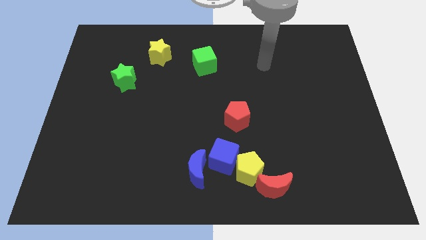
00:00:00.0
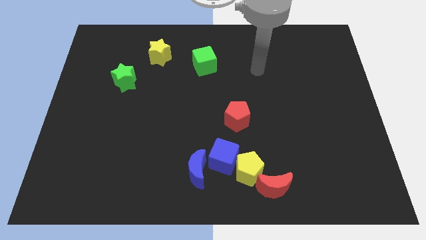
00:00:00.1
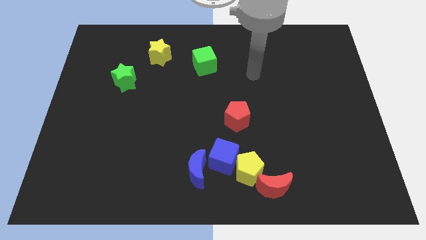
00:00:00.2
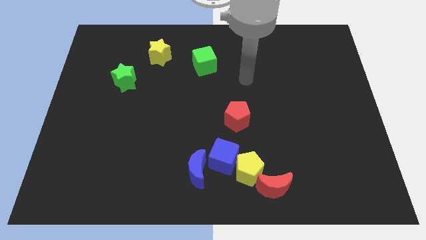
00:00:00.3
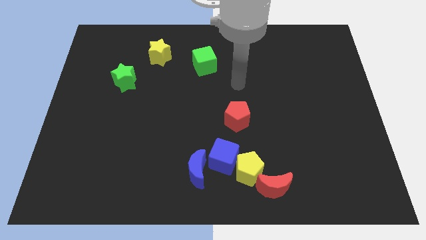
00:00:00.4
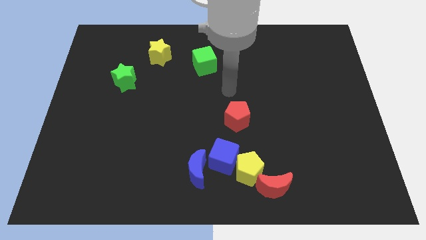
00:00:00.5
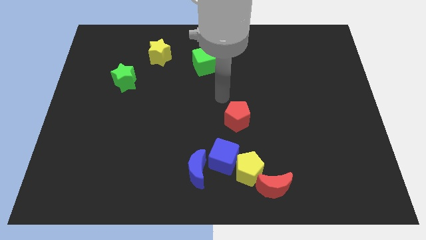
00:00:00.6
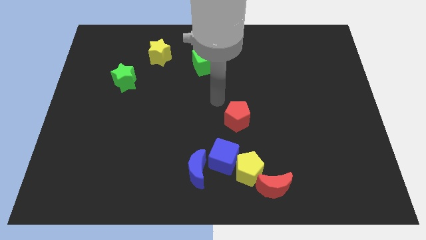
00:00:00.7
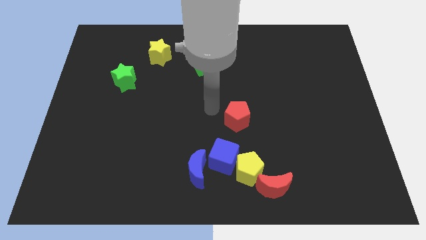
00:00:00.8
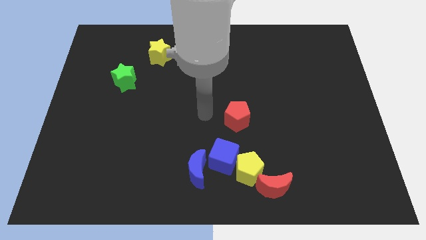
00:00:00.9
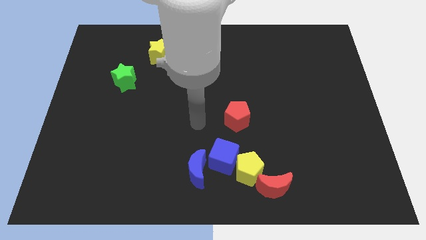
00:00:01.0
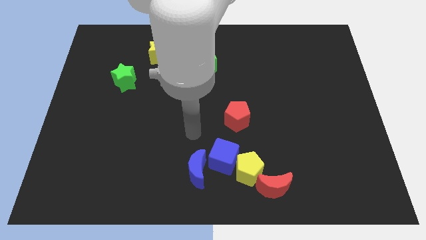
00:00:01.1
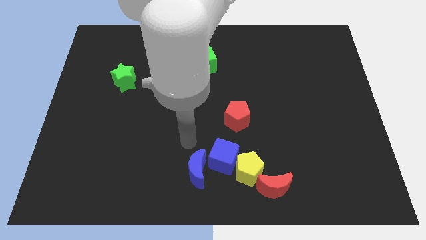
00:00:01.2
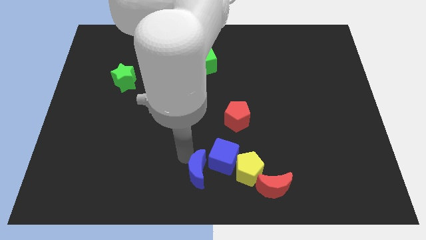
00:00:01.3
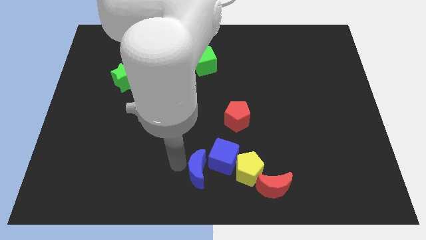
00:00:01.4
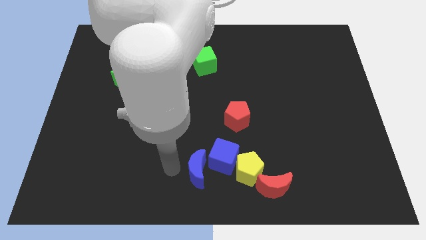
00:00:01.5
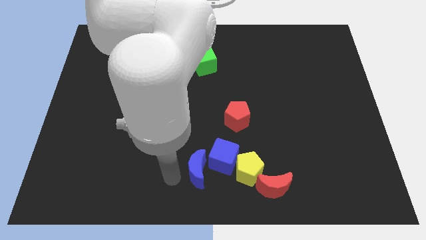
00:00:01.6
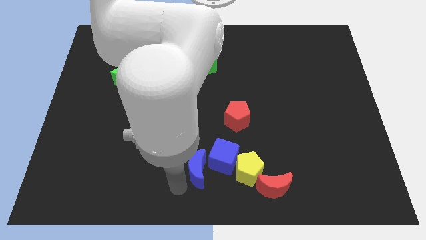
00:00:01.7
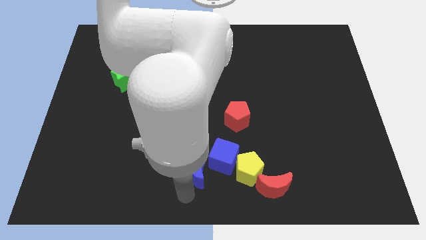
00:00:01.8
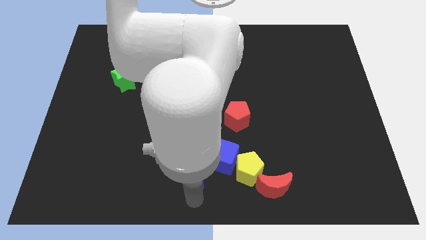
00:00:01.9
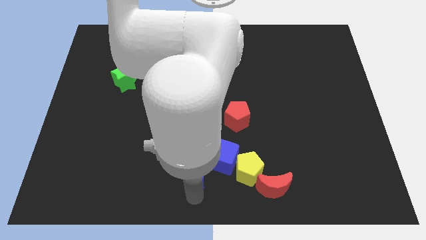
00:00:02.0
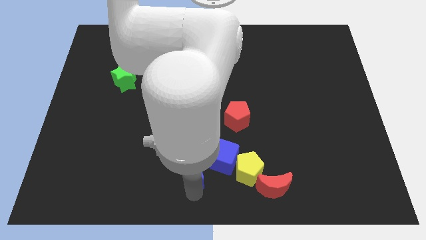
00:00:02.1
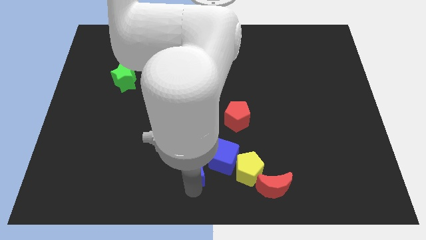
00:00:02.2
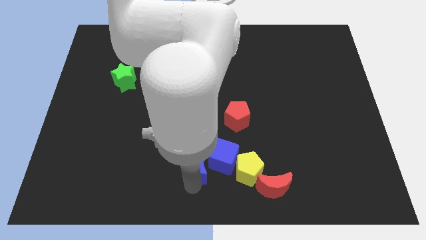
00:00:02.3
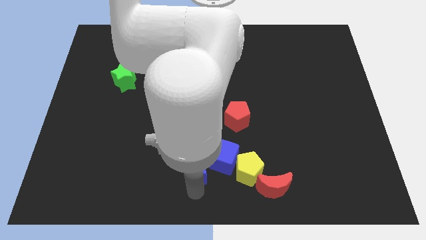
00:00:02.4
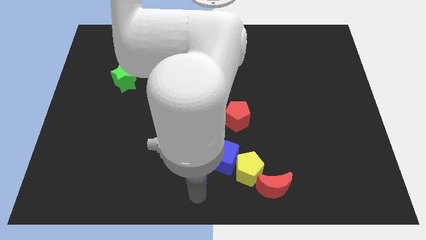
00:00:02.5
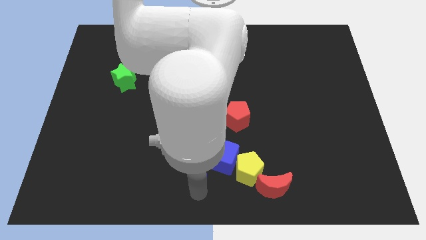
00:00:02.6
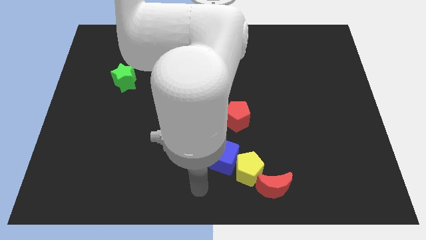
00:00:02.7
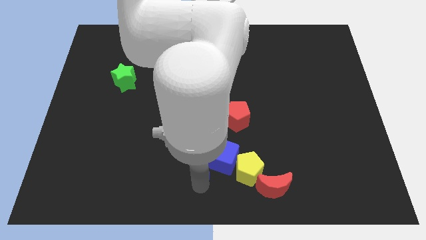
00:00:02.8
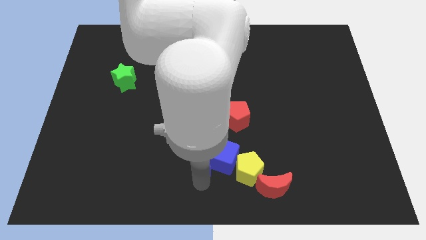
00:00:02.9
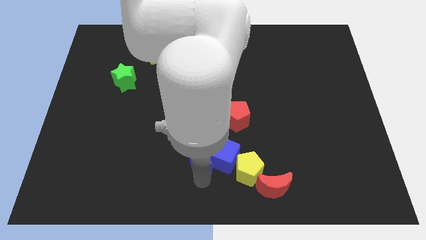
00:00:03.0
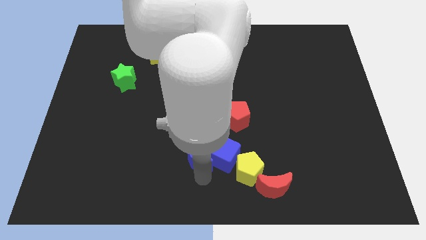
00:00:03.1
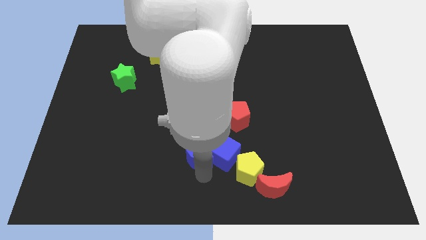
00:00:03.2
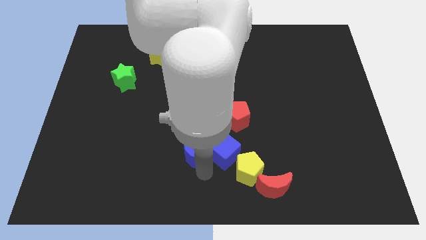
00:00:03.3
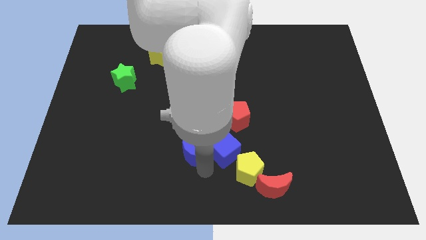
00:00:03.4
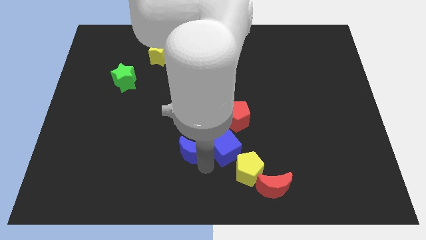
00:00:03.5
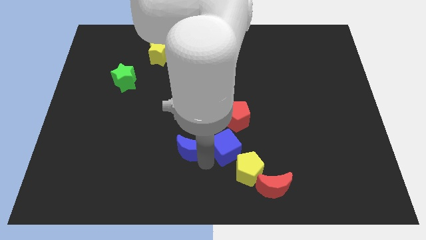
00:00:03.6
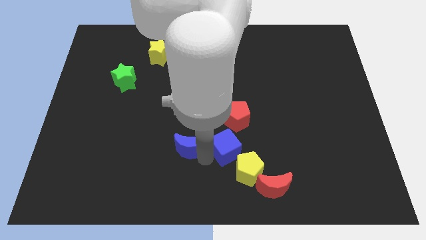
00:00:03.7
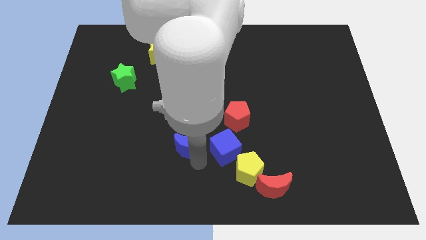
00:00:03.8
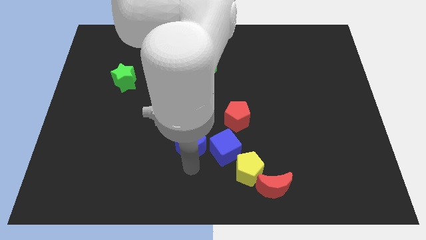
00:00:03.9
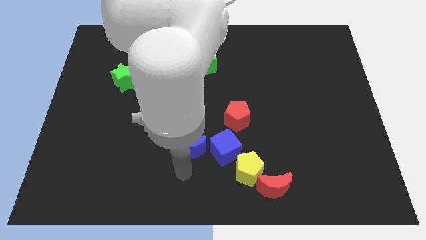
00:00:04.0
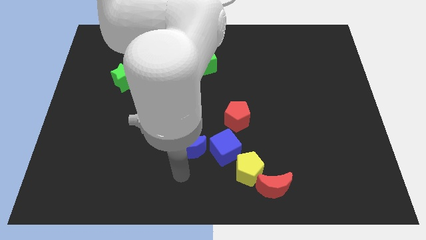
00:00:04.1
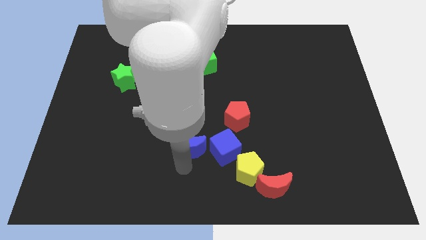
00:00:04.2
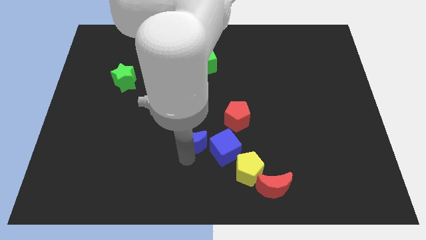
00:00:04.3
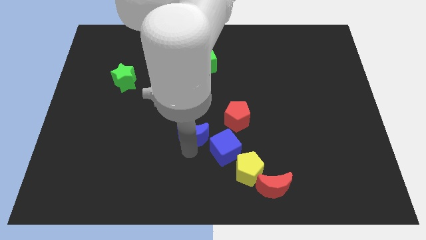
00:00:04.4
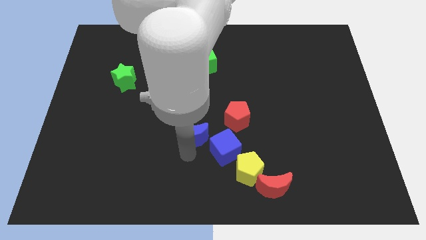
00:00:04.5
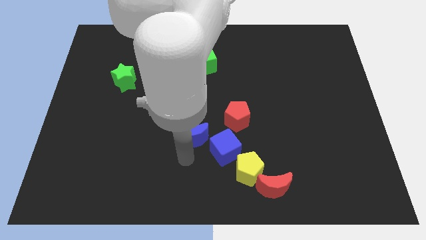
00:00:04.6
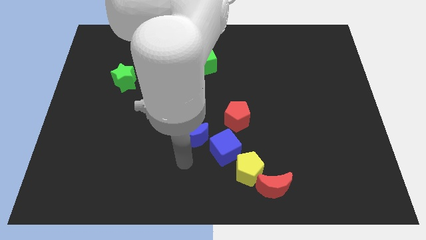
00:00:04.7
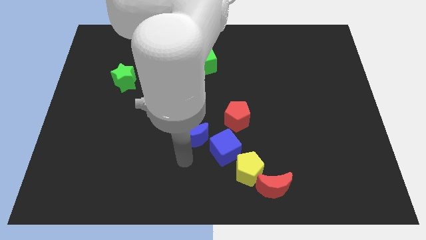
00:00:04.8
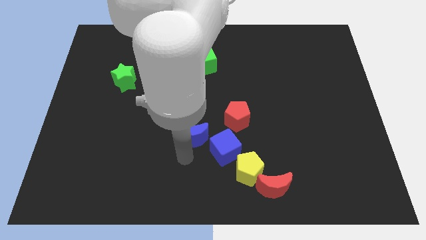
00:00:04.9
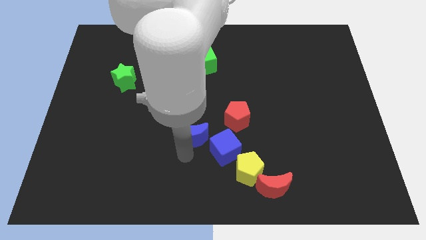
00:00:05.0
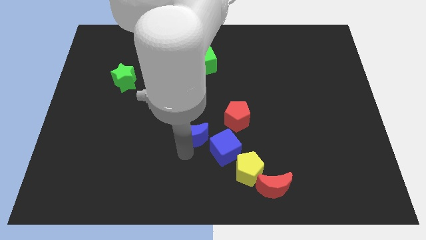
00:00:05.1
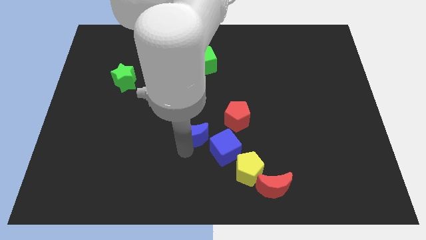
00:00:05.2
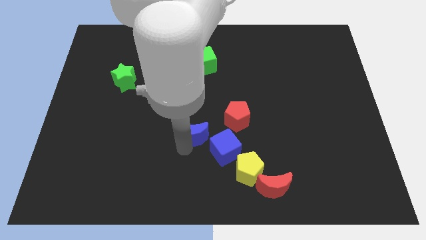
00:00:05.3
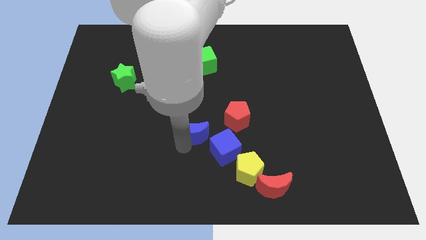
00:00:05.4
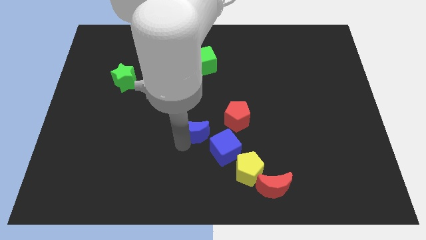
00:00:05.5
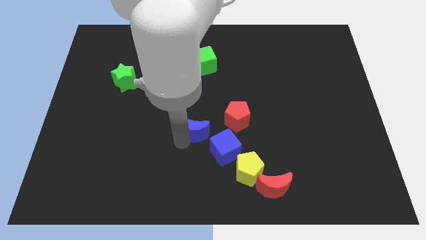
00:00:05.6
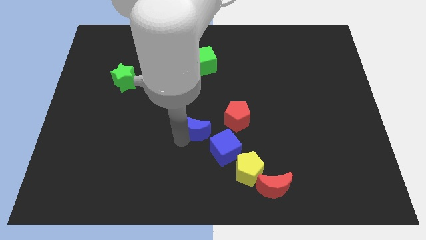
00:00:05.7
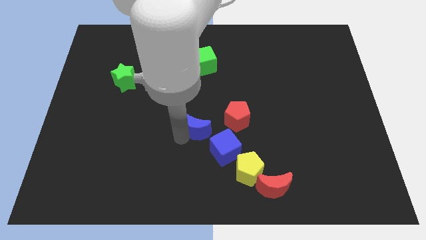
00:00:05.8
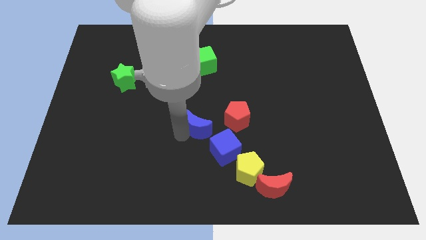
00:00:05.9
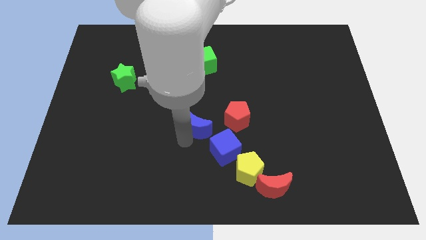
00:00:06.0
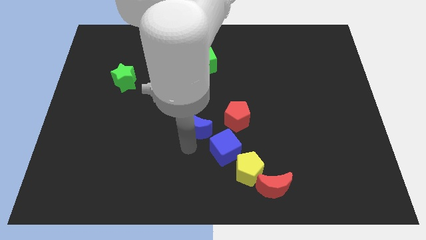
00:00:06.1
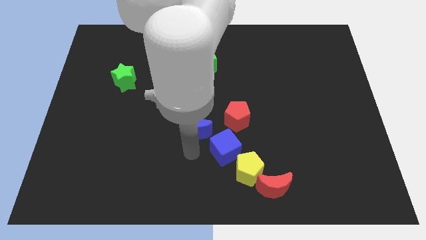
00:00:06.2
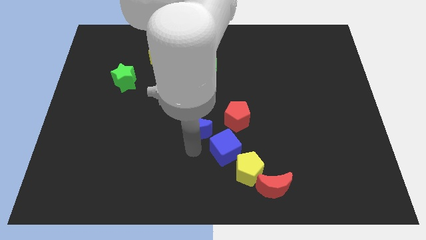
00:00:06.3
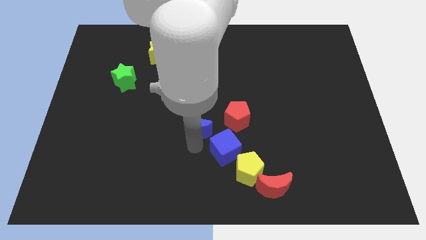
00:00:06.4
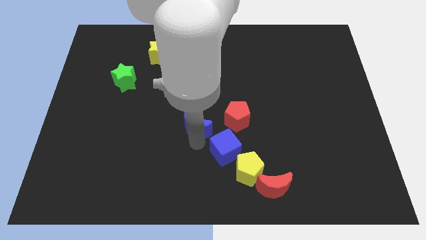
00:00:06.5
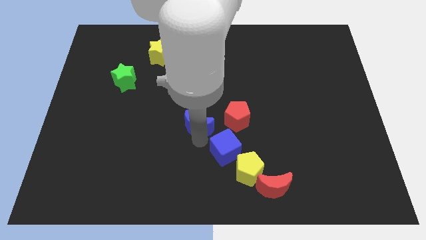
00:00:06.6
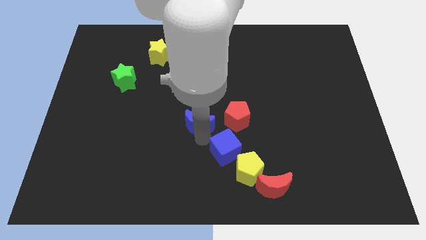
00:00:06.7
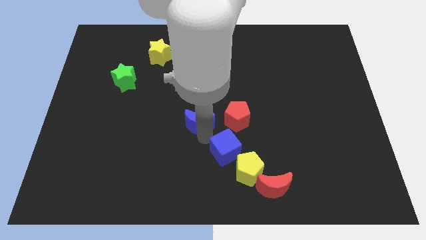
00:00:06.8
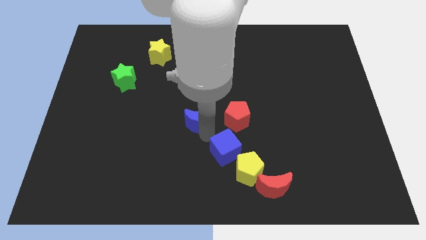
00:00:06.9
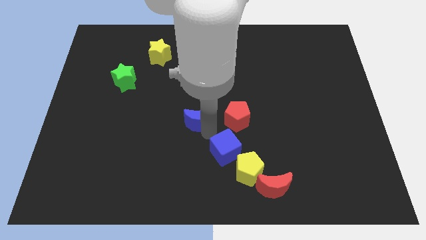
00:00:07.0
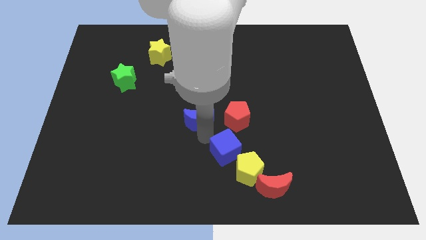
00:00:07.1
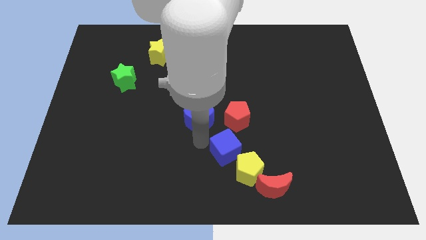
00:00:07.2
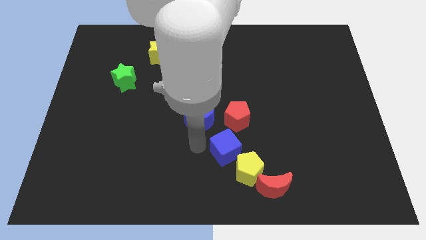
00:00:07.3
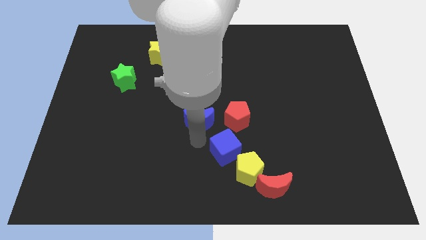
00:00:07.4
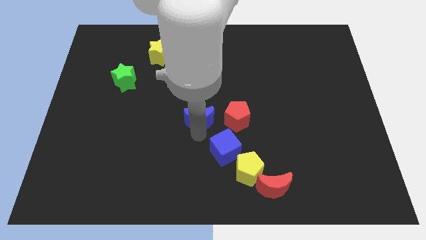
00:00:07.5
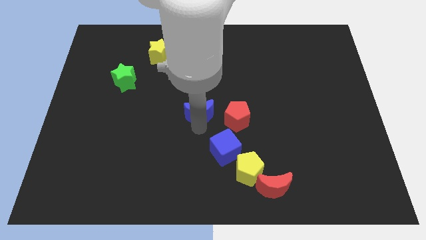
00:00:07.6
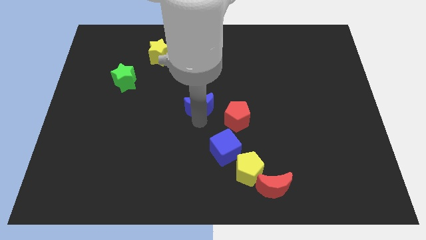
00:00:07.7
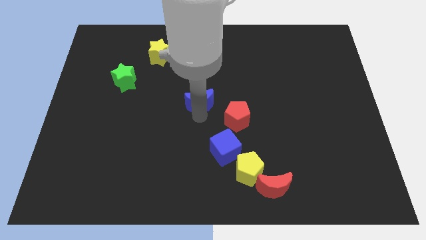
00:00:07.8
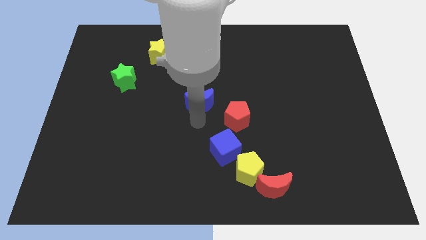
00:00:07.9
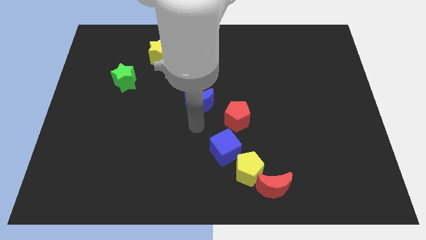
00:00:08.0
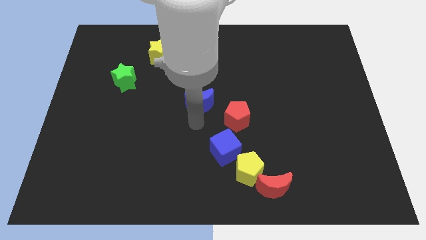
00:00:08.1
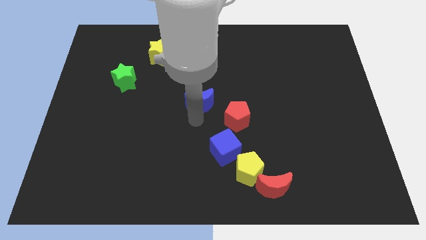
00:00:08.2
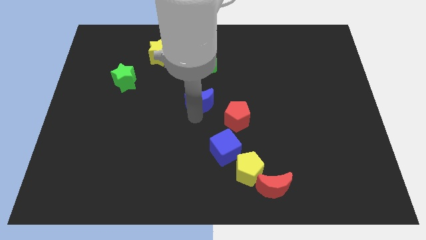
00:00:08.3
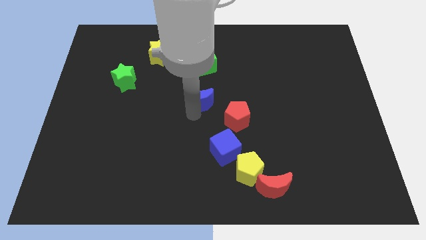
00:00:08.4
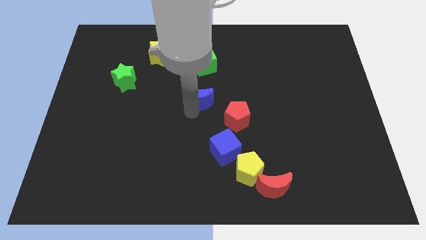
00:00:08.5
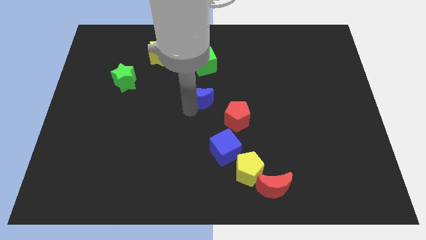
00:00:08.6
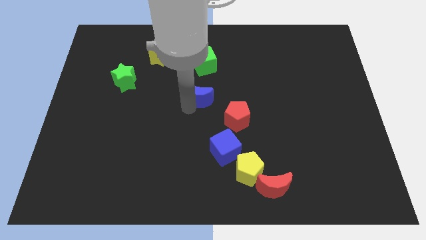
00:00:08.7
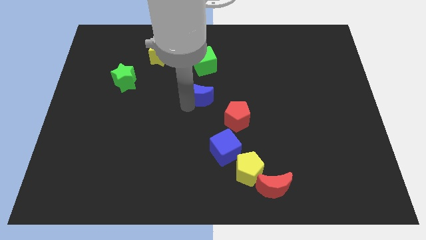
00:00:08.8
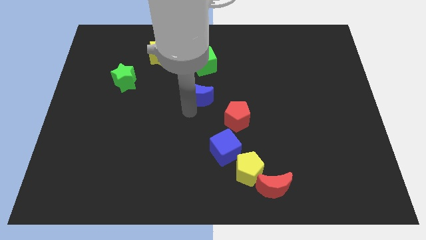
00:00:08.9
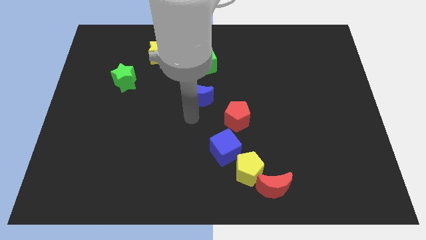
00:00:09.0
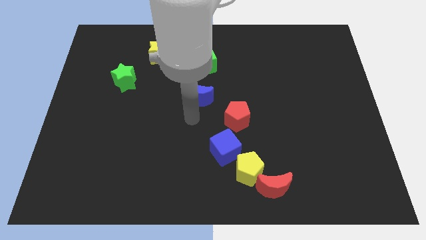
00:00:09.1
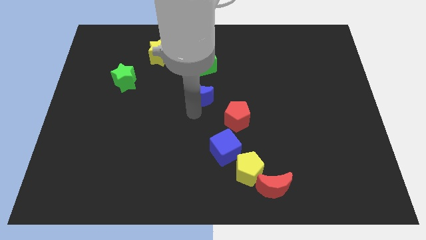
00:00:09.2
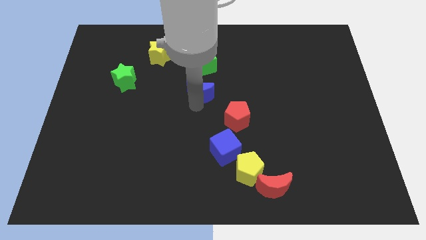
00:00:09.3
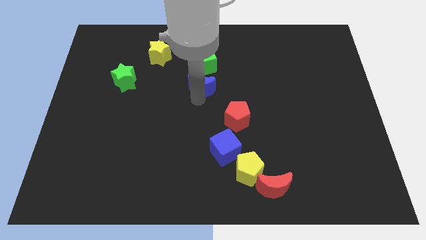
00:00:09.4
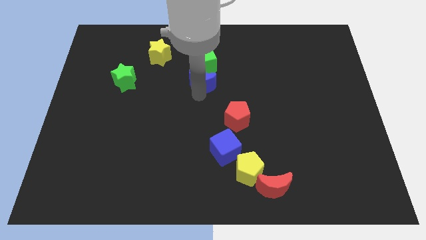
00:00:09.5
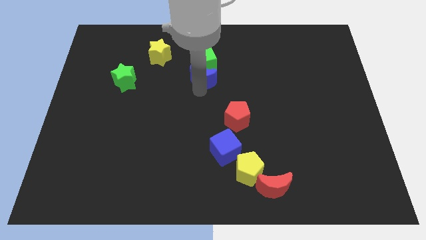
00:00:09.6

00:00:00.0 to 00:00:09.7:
move the blue moon towards the green cube
